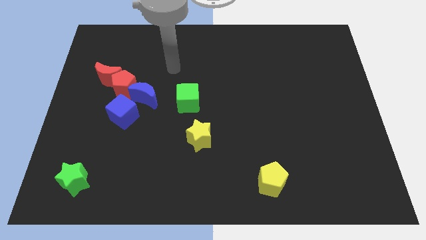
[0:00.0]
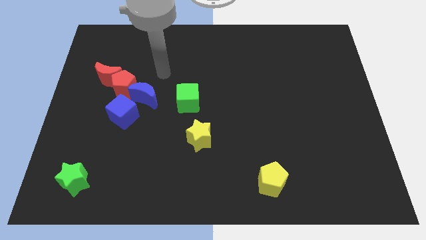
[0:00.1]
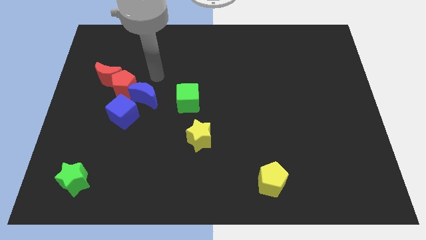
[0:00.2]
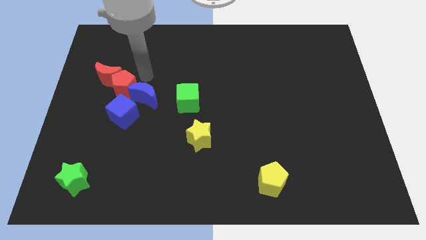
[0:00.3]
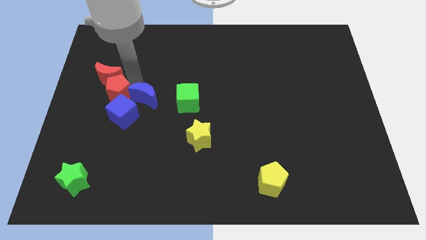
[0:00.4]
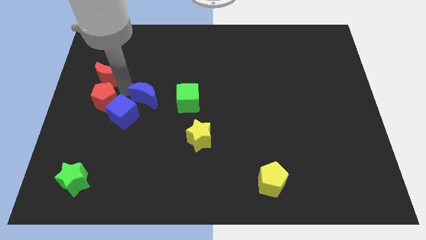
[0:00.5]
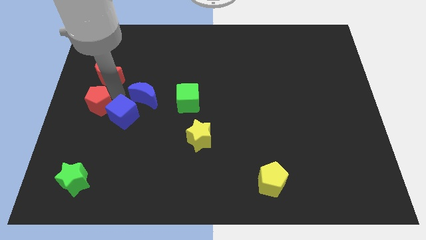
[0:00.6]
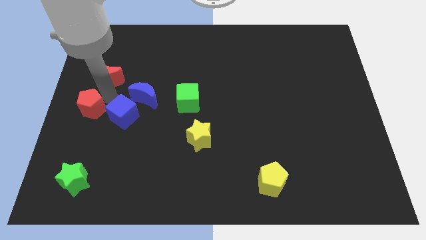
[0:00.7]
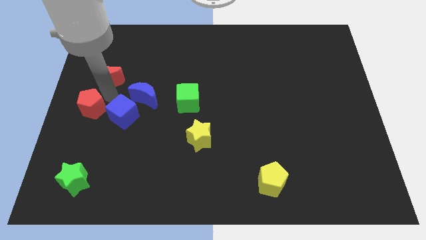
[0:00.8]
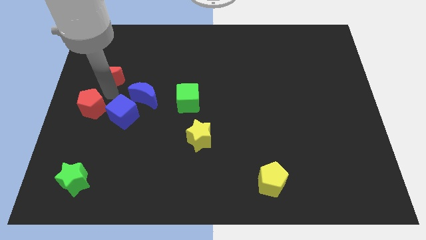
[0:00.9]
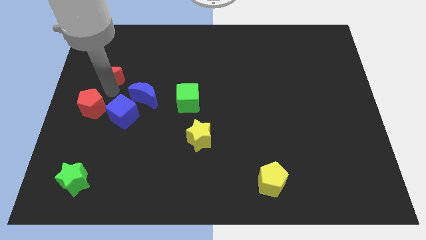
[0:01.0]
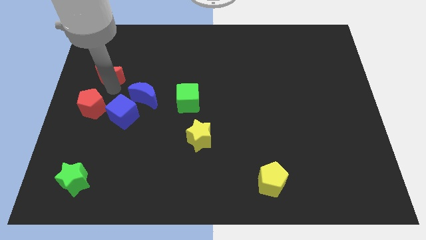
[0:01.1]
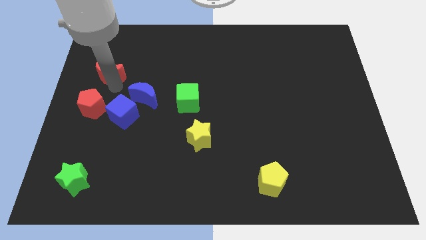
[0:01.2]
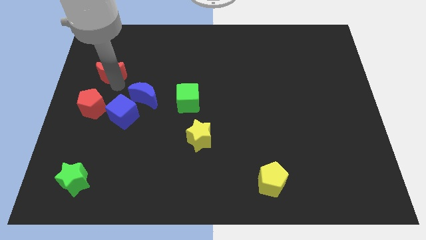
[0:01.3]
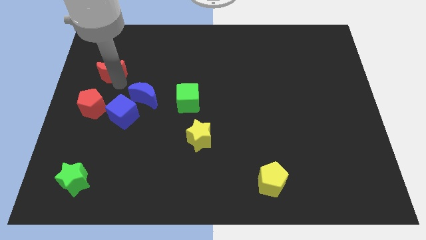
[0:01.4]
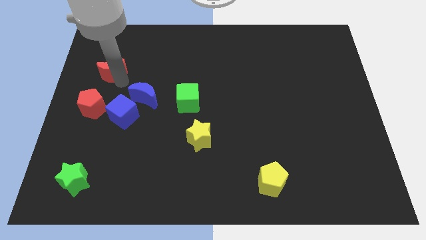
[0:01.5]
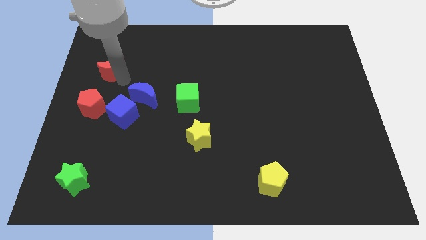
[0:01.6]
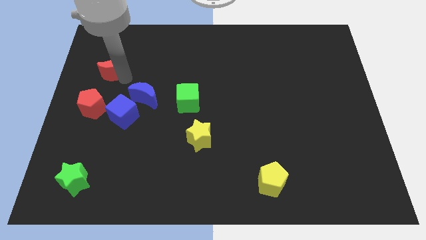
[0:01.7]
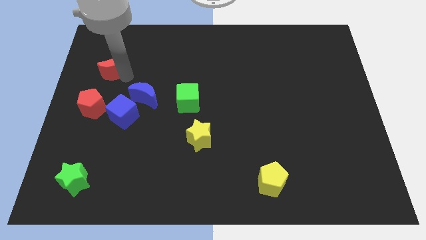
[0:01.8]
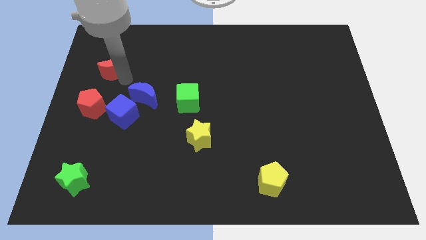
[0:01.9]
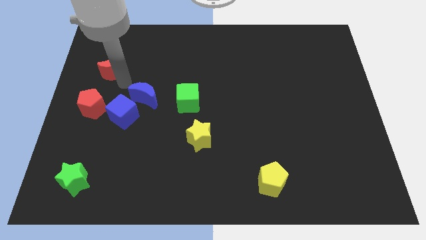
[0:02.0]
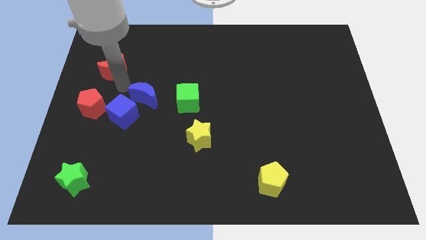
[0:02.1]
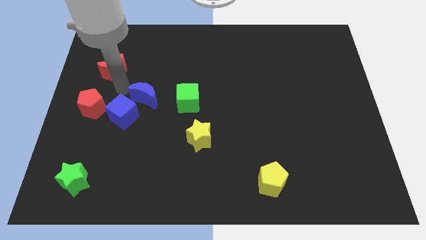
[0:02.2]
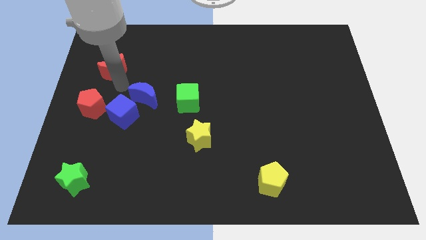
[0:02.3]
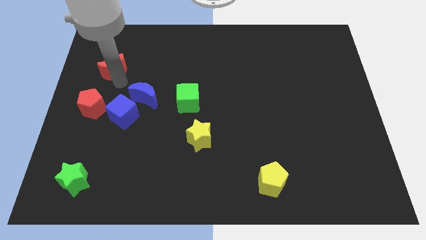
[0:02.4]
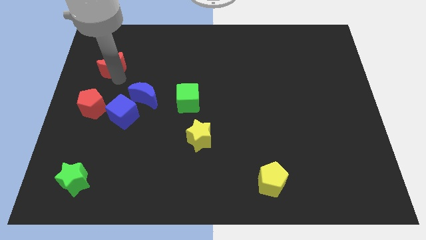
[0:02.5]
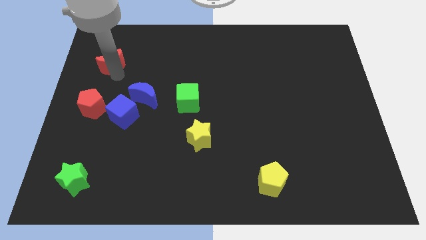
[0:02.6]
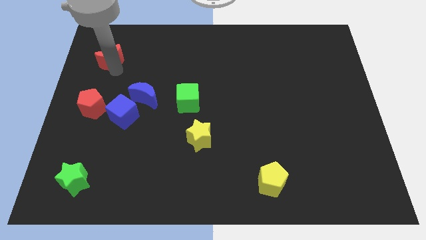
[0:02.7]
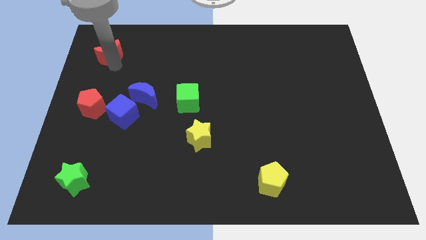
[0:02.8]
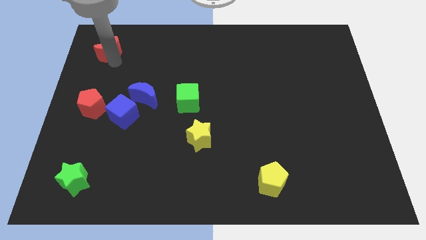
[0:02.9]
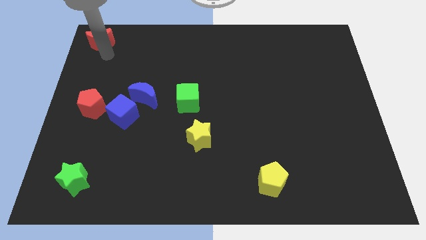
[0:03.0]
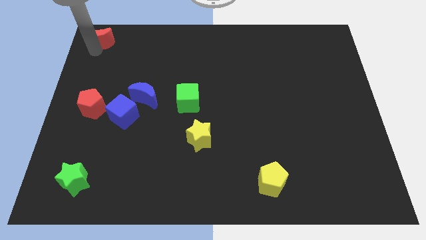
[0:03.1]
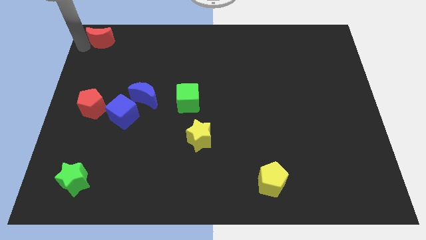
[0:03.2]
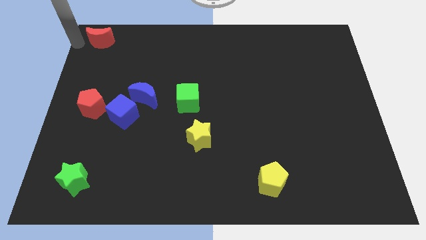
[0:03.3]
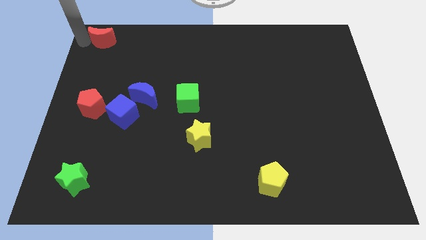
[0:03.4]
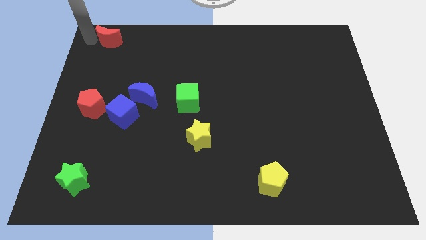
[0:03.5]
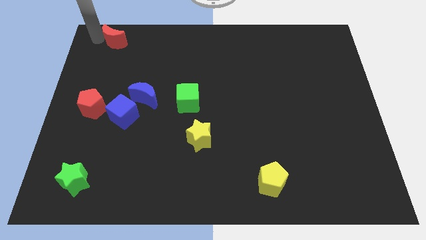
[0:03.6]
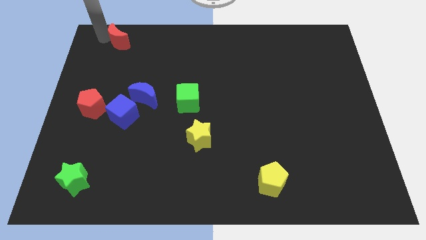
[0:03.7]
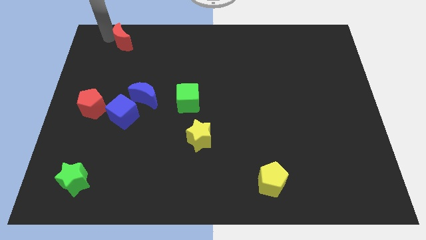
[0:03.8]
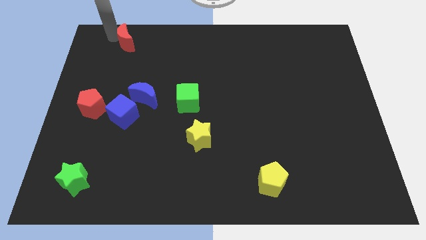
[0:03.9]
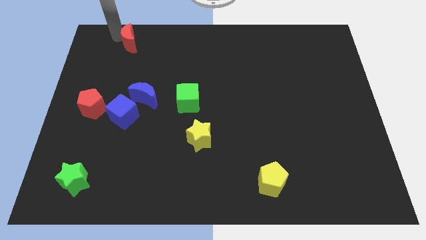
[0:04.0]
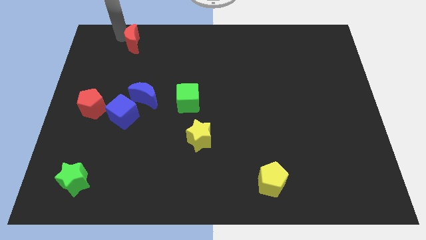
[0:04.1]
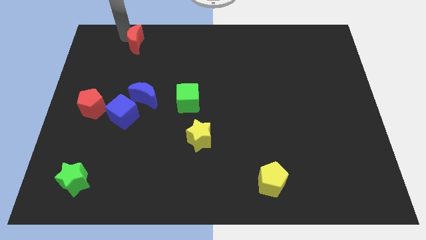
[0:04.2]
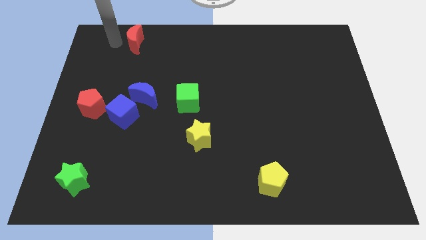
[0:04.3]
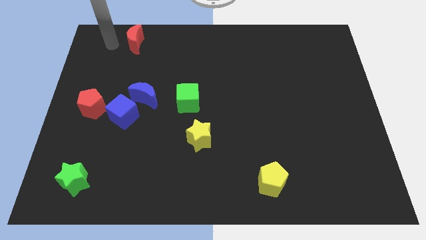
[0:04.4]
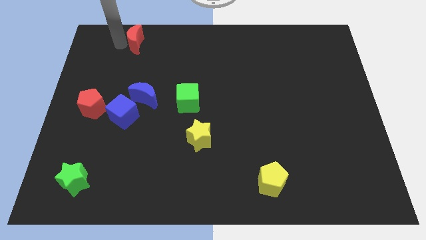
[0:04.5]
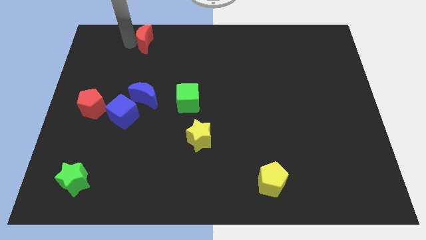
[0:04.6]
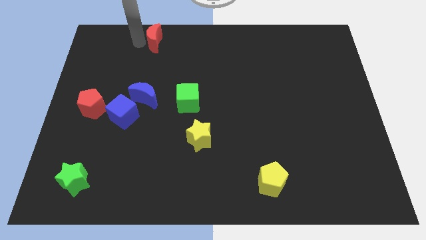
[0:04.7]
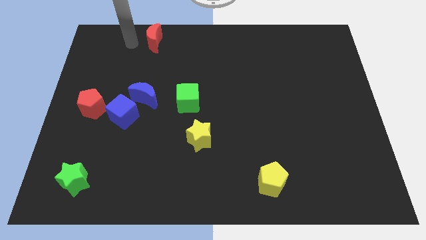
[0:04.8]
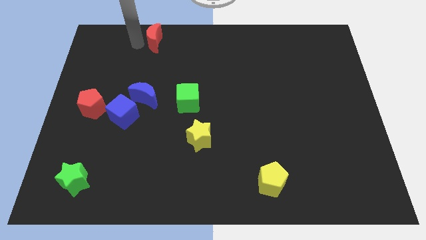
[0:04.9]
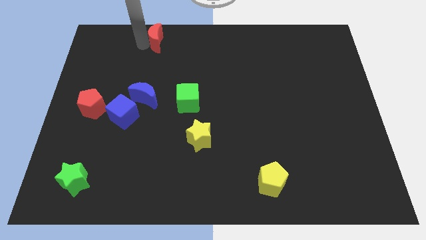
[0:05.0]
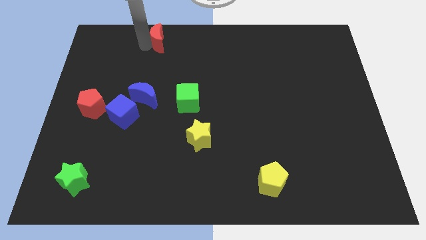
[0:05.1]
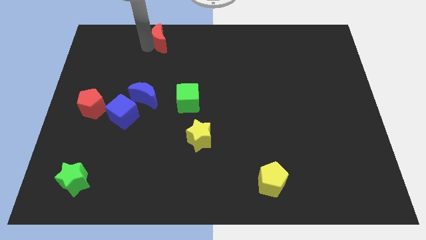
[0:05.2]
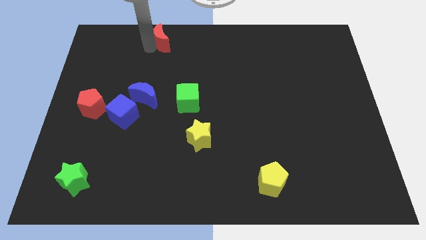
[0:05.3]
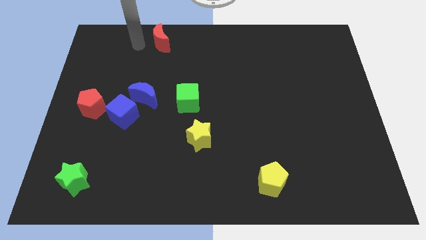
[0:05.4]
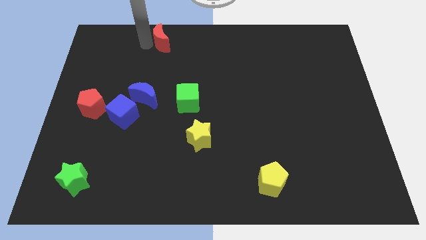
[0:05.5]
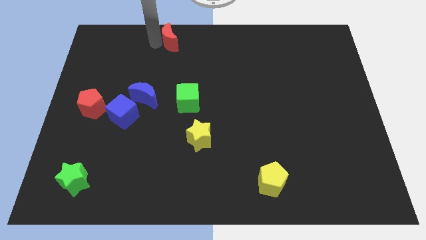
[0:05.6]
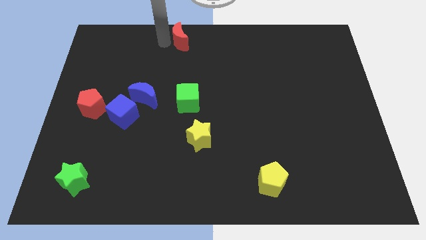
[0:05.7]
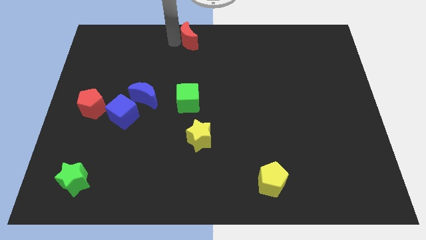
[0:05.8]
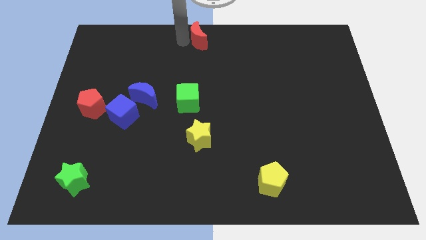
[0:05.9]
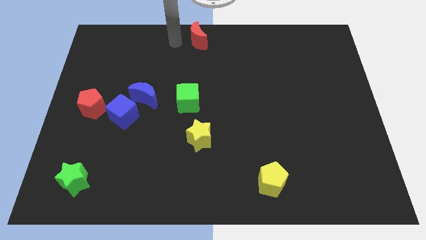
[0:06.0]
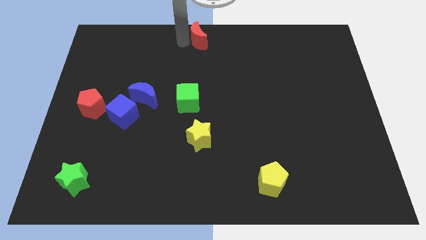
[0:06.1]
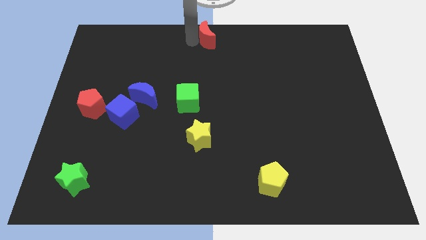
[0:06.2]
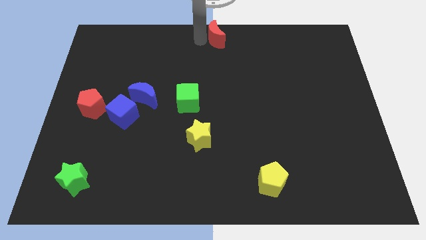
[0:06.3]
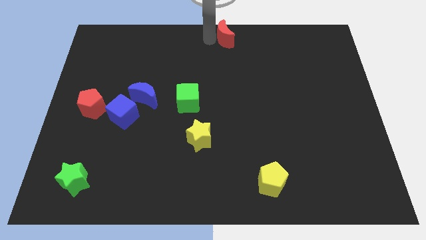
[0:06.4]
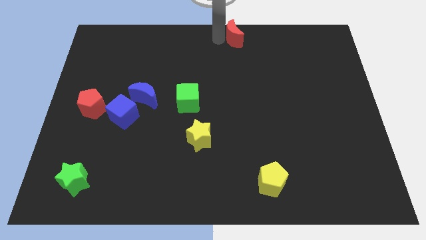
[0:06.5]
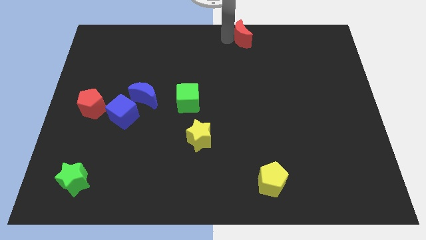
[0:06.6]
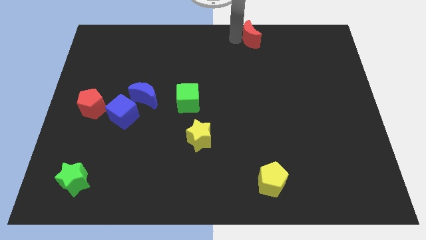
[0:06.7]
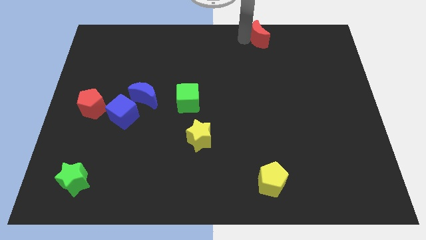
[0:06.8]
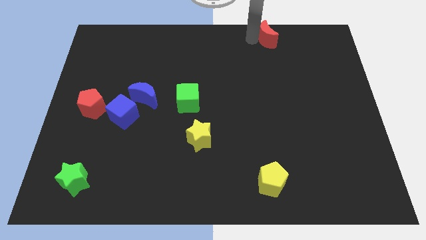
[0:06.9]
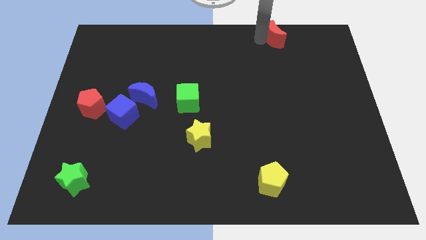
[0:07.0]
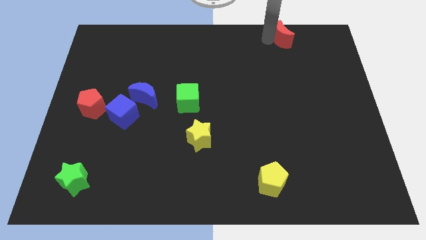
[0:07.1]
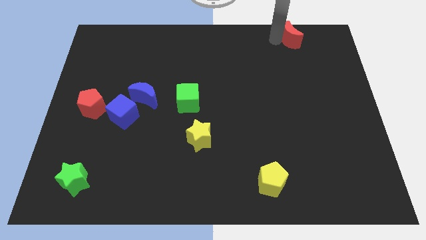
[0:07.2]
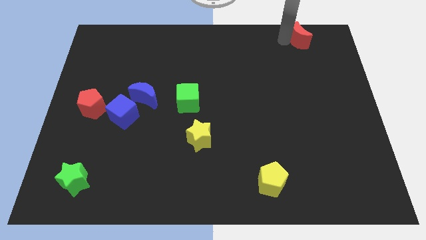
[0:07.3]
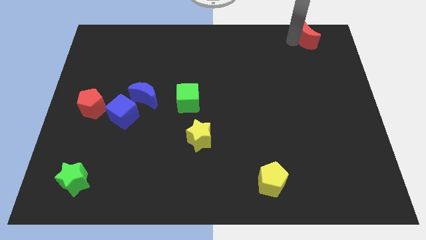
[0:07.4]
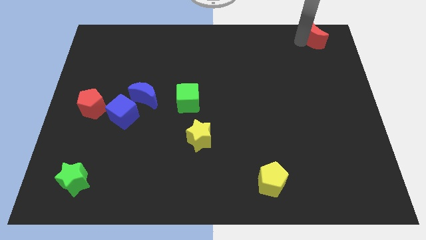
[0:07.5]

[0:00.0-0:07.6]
move the red moon to the top right
